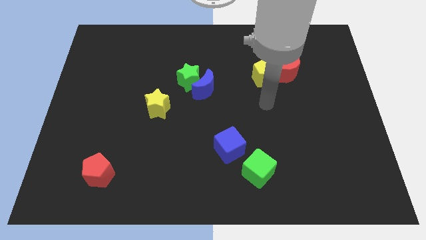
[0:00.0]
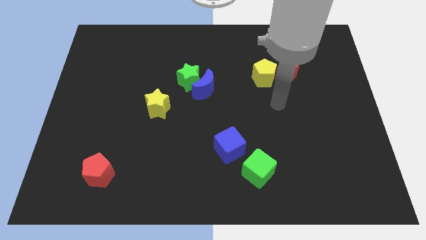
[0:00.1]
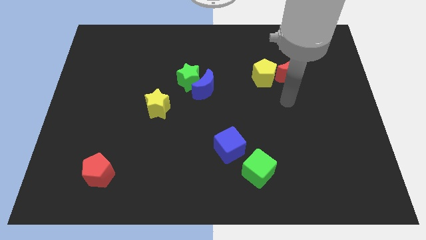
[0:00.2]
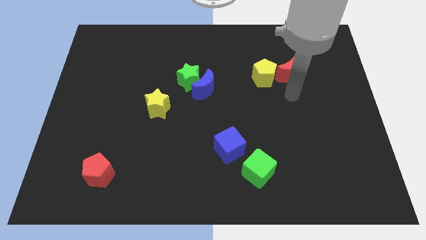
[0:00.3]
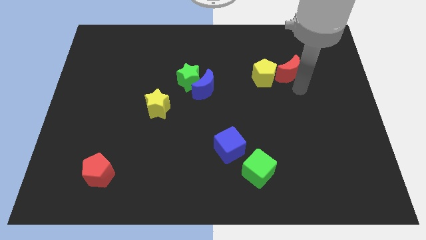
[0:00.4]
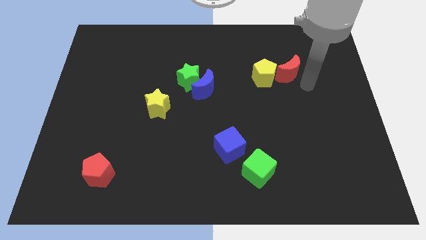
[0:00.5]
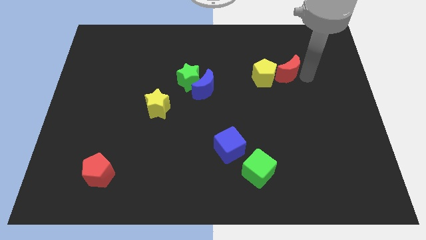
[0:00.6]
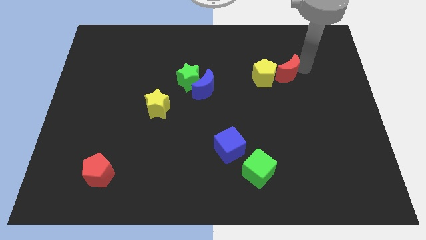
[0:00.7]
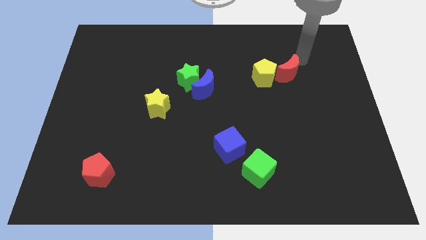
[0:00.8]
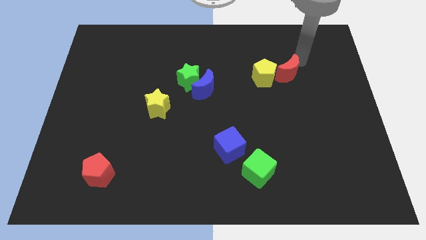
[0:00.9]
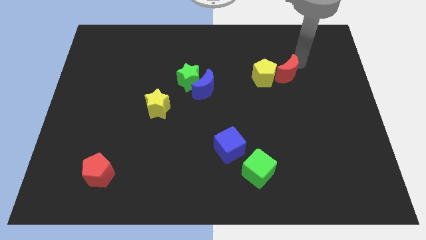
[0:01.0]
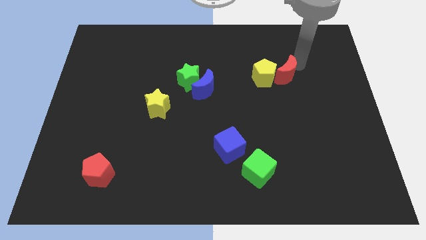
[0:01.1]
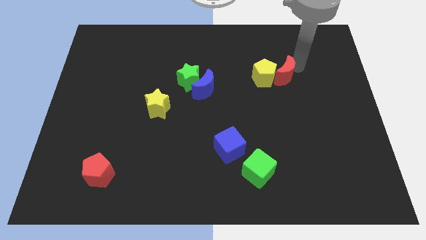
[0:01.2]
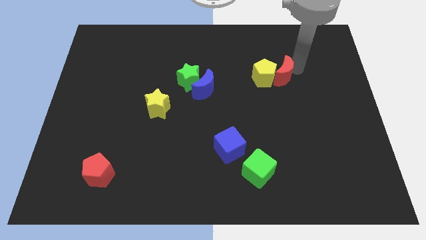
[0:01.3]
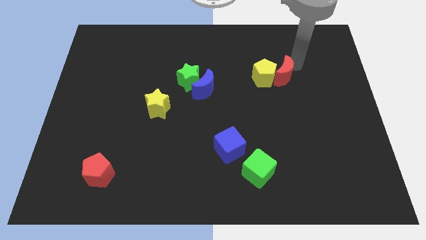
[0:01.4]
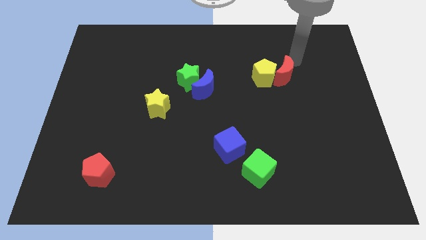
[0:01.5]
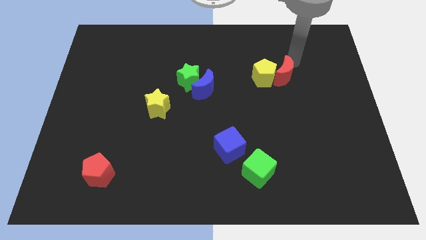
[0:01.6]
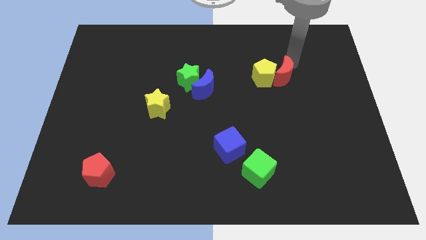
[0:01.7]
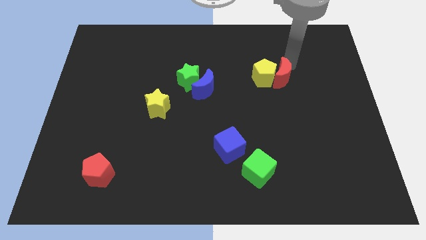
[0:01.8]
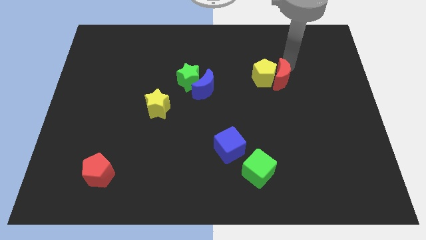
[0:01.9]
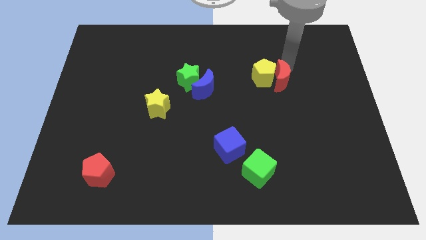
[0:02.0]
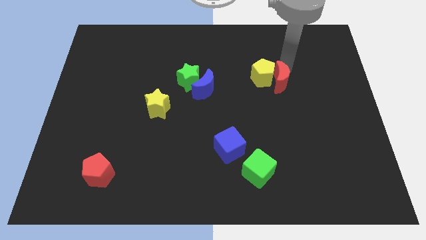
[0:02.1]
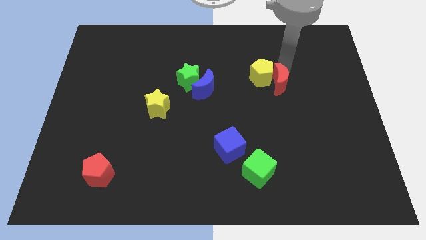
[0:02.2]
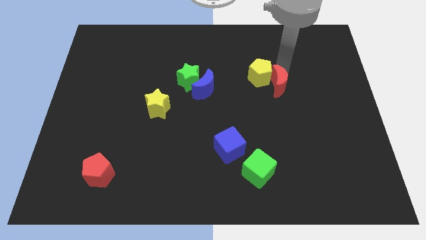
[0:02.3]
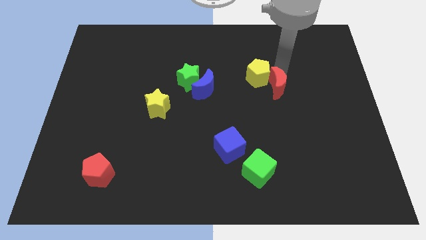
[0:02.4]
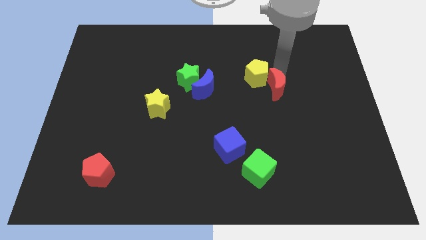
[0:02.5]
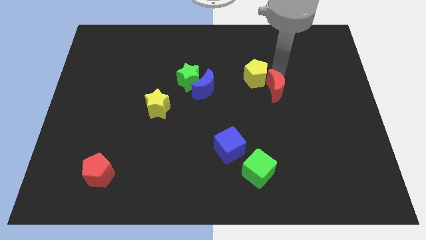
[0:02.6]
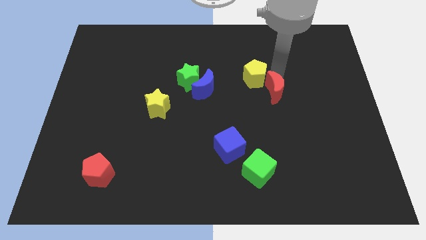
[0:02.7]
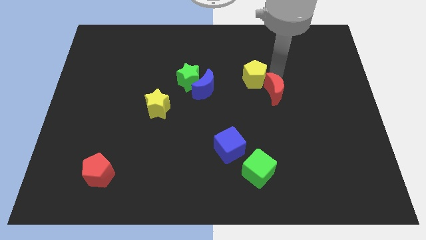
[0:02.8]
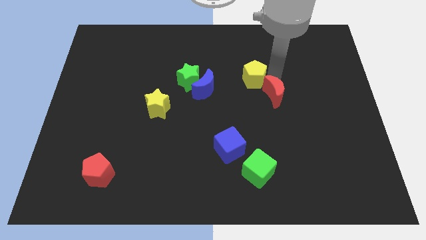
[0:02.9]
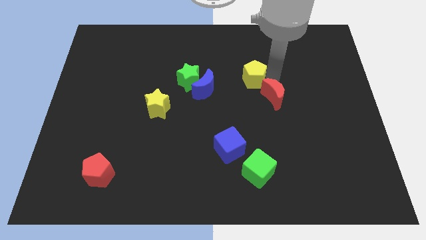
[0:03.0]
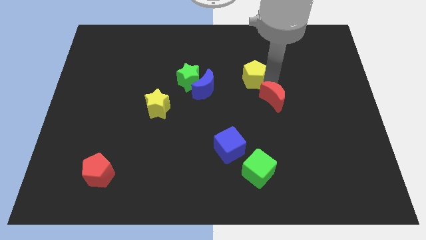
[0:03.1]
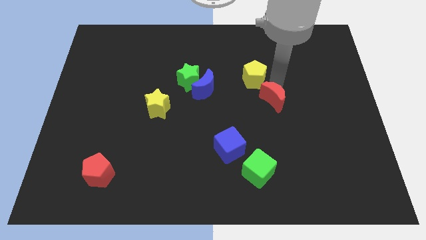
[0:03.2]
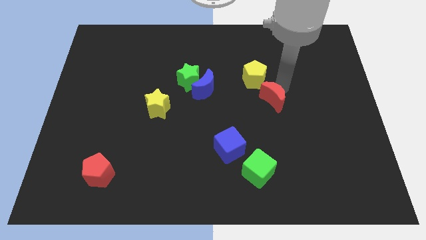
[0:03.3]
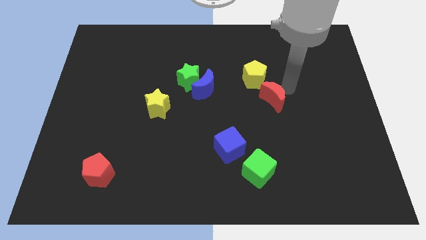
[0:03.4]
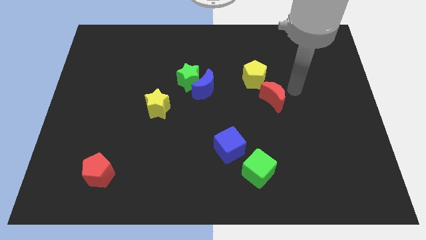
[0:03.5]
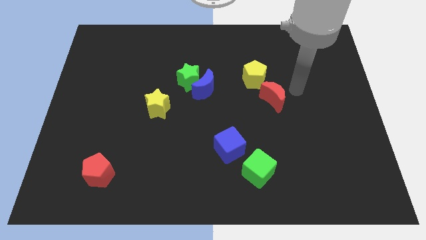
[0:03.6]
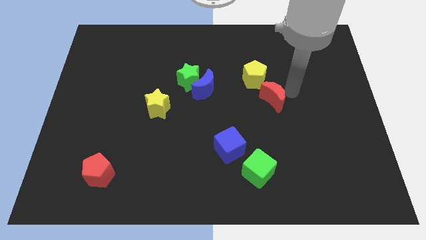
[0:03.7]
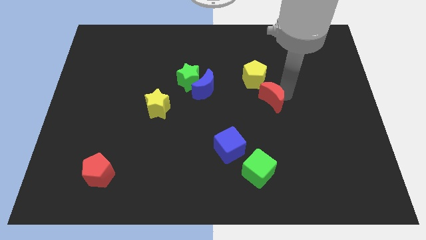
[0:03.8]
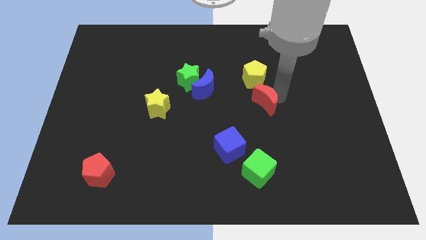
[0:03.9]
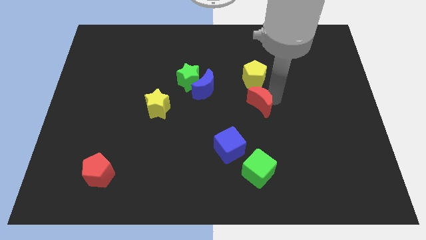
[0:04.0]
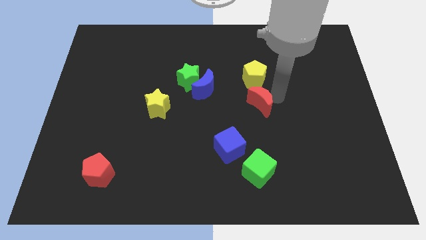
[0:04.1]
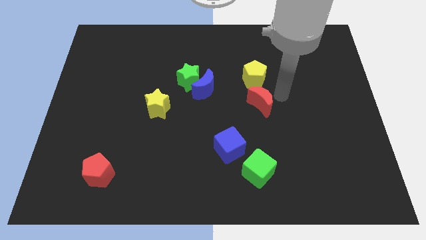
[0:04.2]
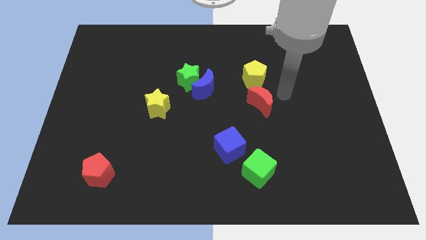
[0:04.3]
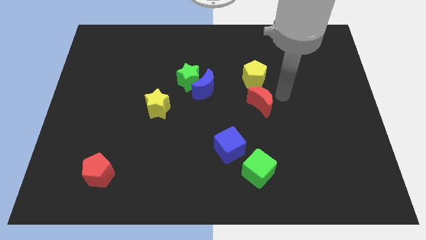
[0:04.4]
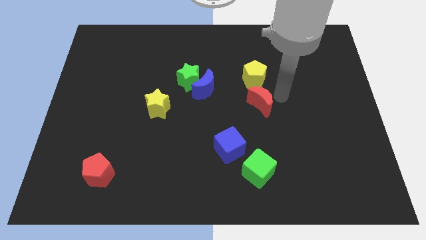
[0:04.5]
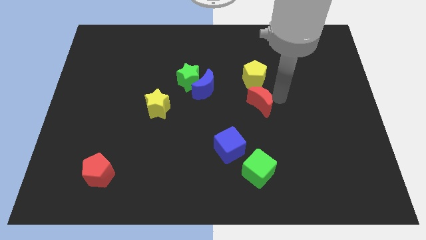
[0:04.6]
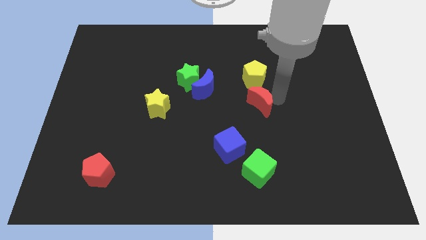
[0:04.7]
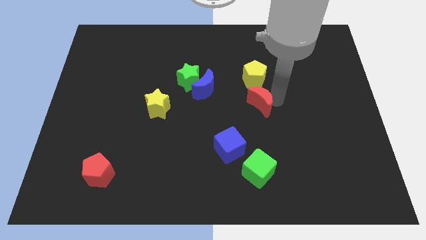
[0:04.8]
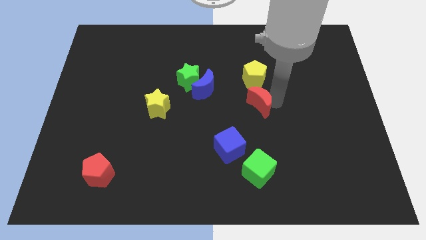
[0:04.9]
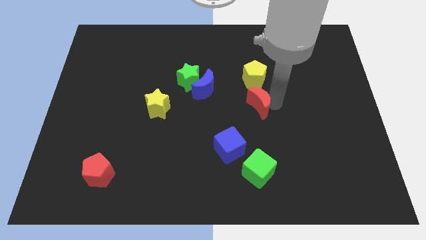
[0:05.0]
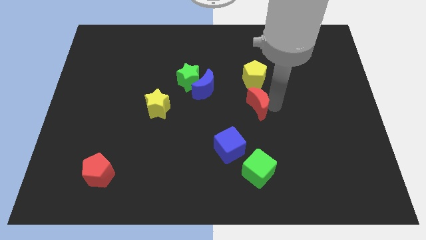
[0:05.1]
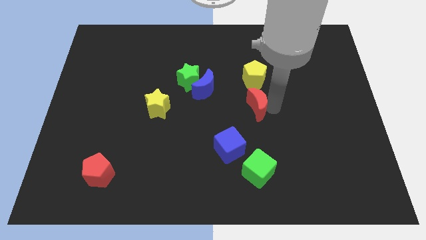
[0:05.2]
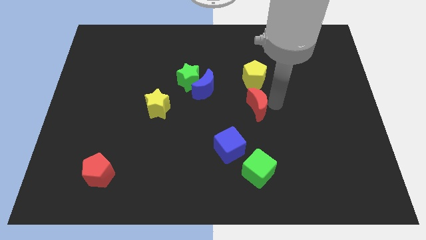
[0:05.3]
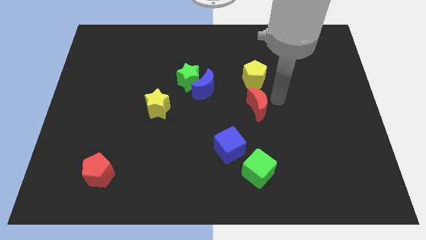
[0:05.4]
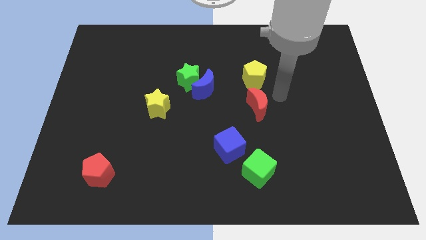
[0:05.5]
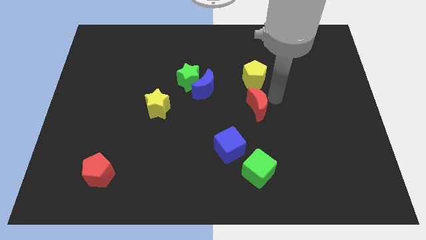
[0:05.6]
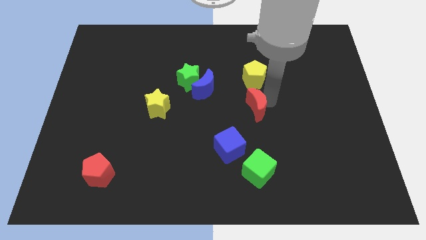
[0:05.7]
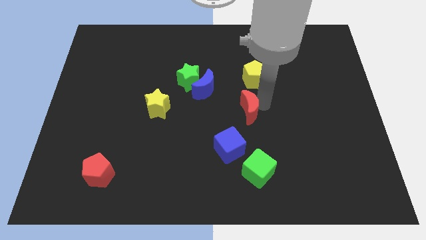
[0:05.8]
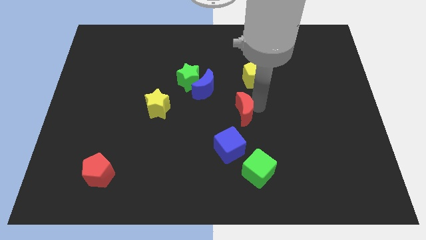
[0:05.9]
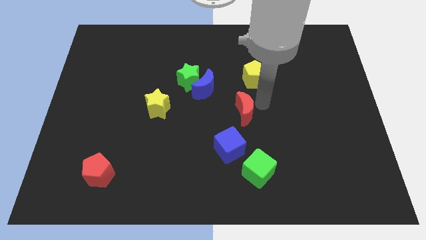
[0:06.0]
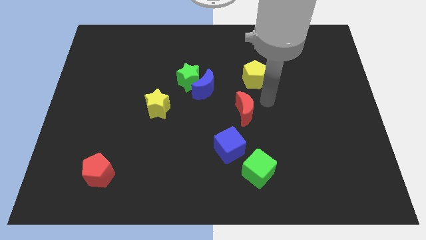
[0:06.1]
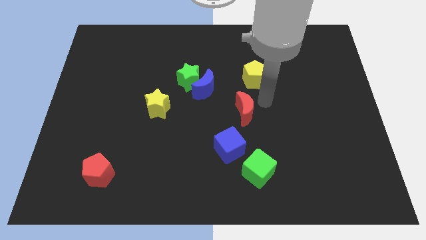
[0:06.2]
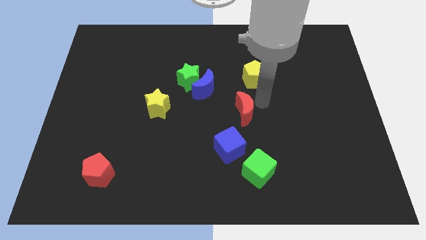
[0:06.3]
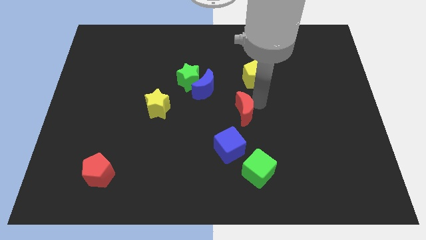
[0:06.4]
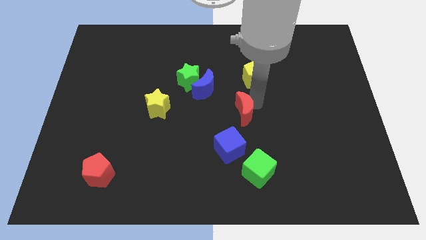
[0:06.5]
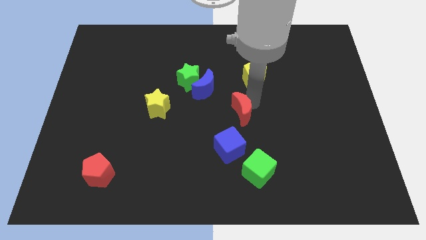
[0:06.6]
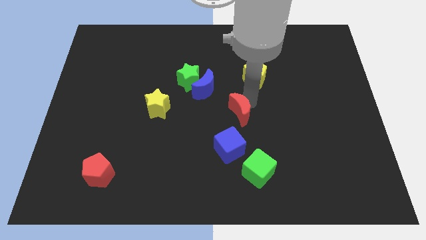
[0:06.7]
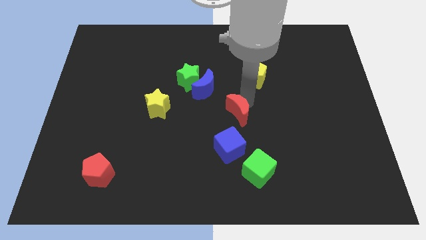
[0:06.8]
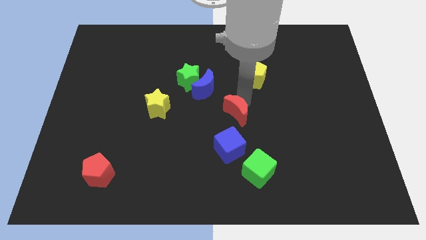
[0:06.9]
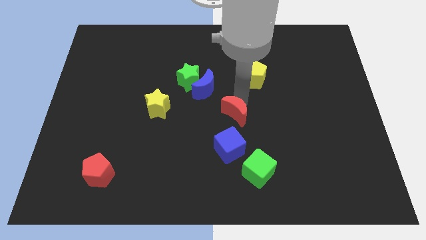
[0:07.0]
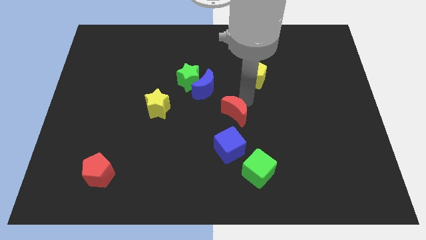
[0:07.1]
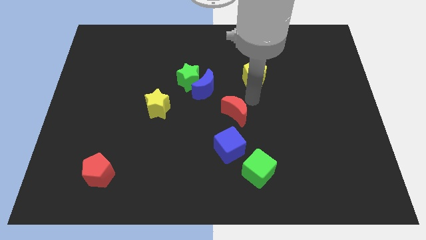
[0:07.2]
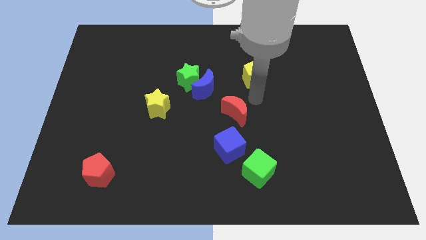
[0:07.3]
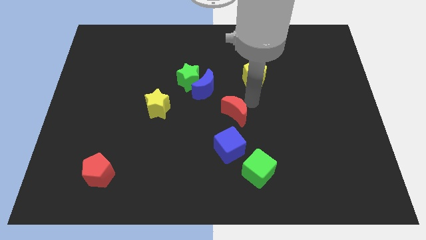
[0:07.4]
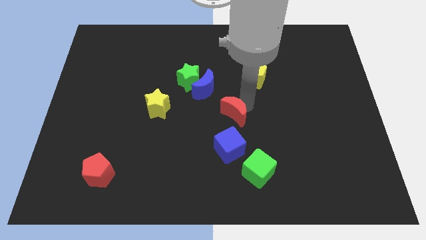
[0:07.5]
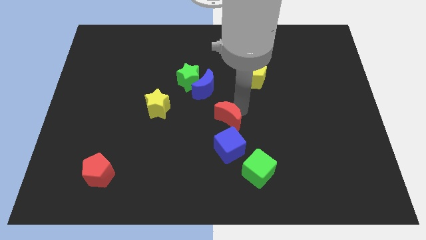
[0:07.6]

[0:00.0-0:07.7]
slide the red moon down and left
